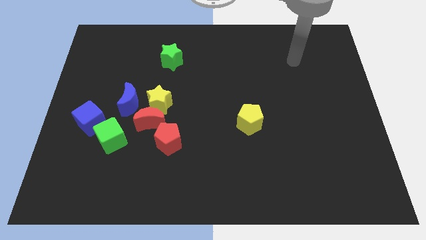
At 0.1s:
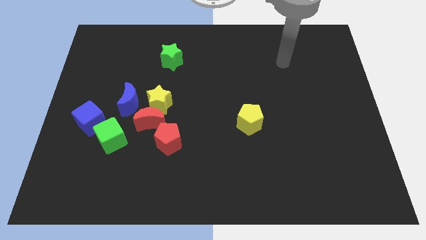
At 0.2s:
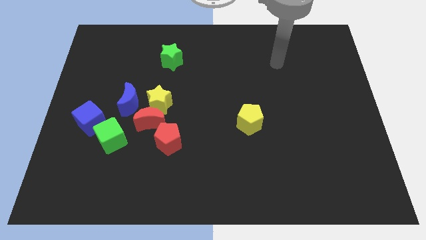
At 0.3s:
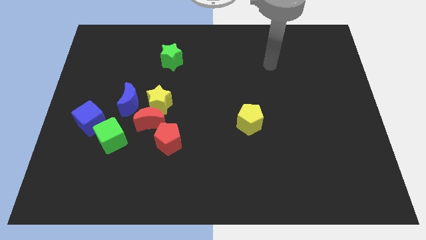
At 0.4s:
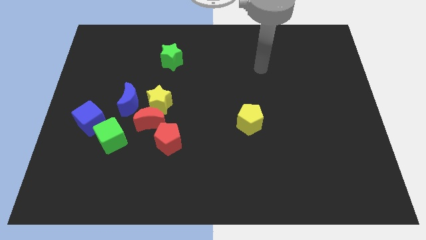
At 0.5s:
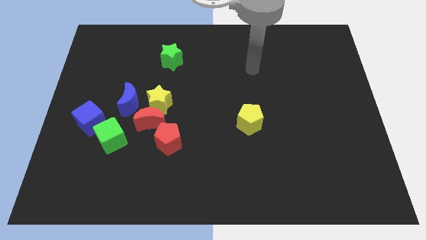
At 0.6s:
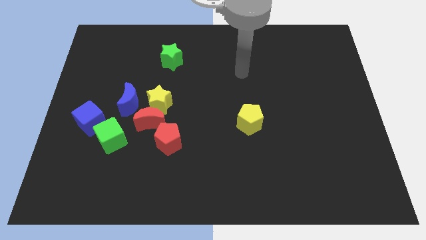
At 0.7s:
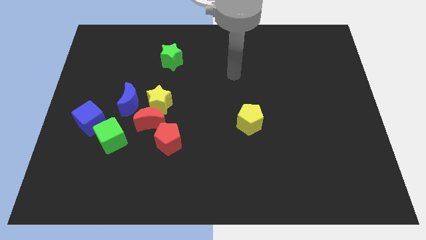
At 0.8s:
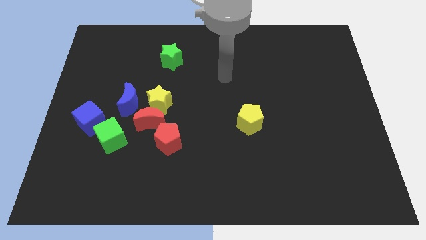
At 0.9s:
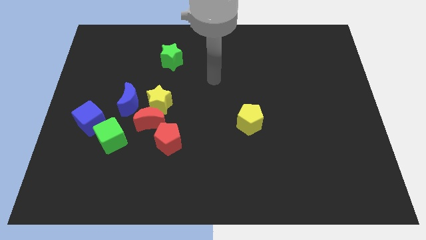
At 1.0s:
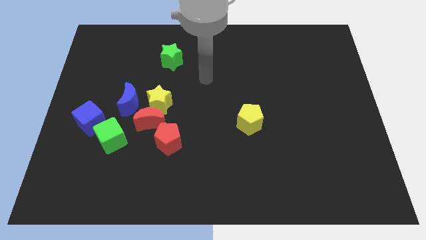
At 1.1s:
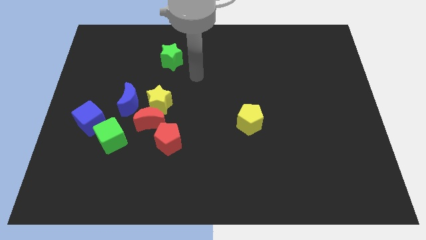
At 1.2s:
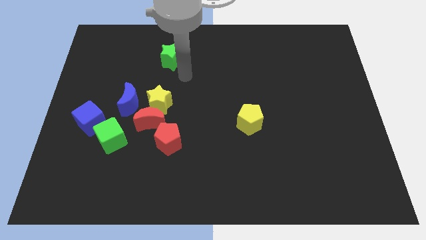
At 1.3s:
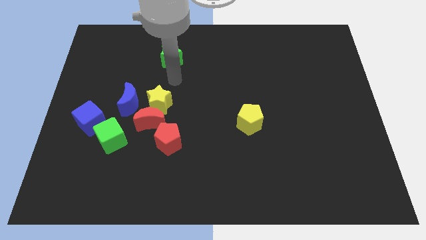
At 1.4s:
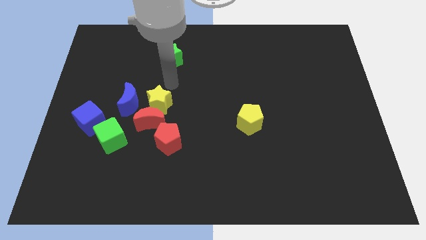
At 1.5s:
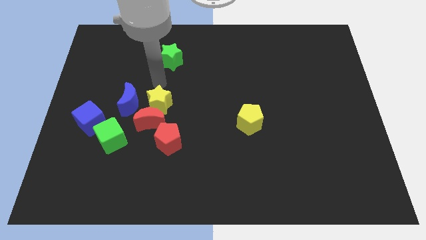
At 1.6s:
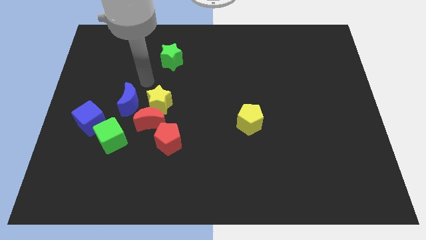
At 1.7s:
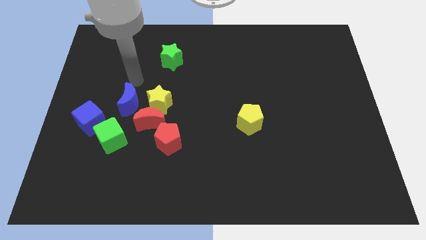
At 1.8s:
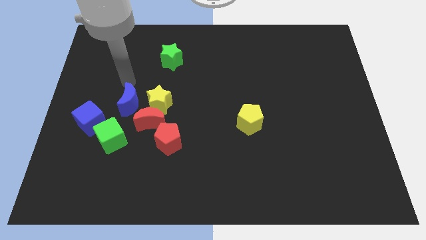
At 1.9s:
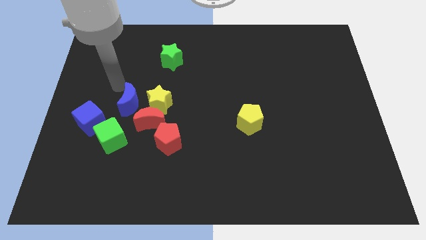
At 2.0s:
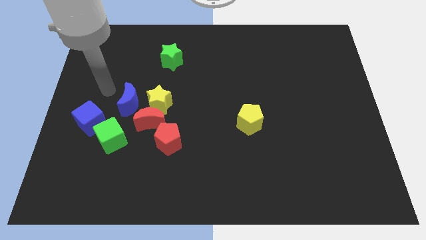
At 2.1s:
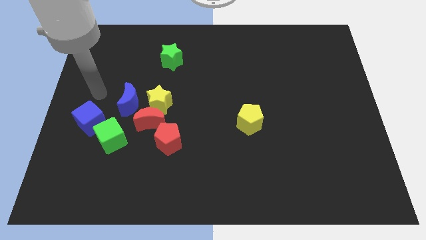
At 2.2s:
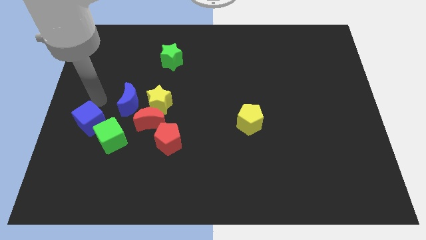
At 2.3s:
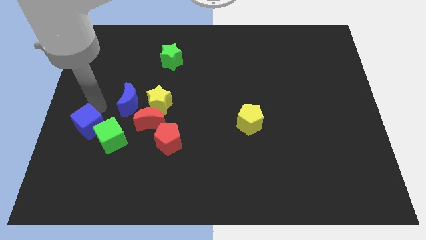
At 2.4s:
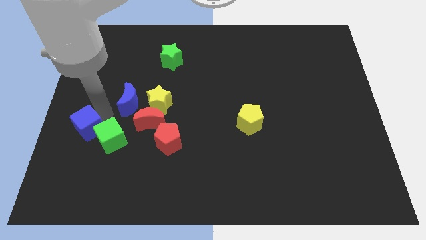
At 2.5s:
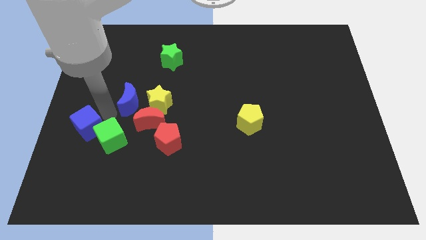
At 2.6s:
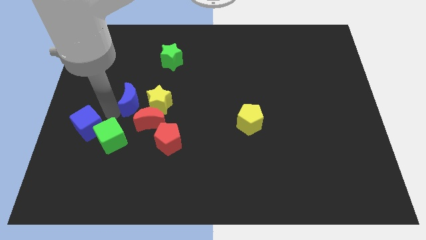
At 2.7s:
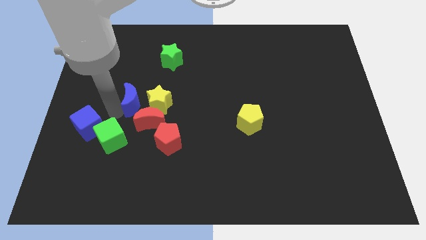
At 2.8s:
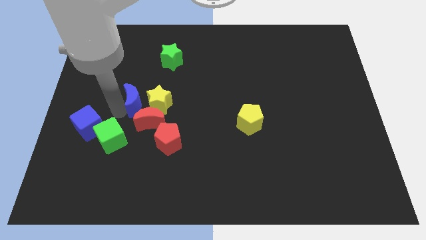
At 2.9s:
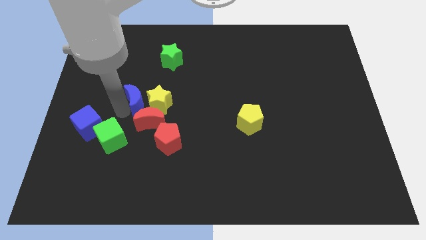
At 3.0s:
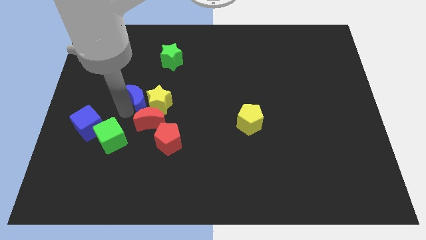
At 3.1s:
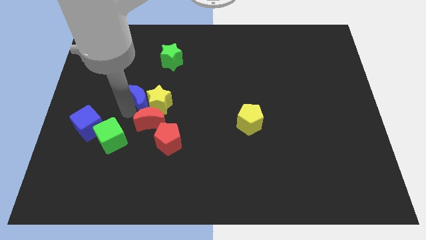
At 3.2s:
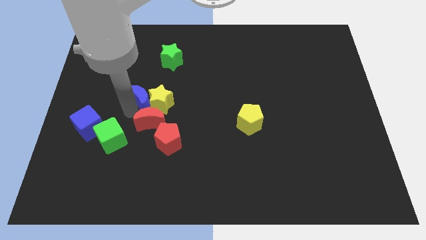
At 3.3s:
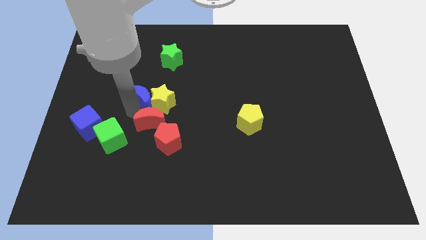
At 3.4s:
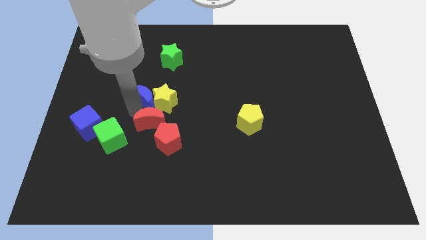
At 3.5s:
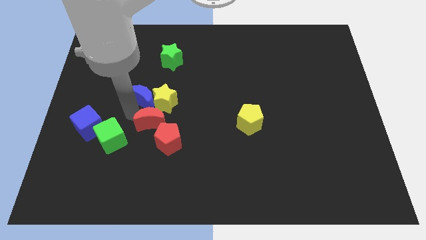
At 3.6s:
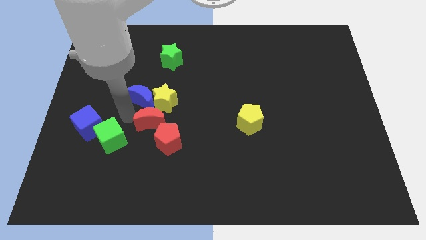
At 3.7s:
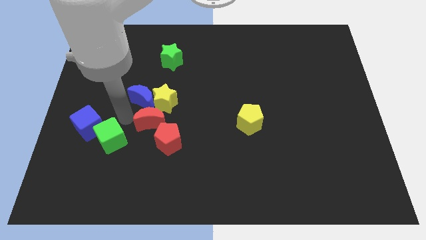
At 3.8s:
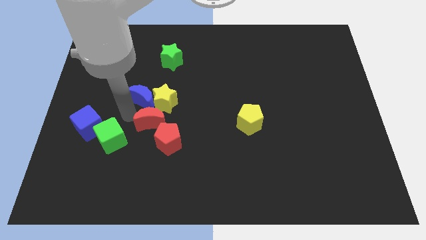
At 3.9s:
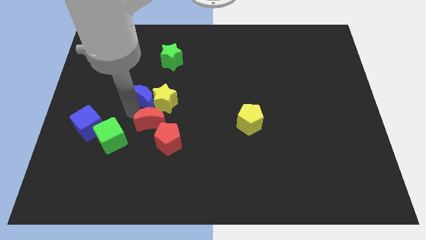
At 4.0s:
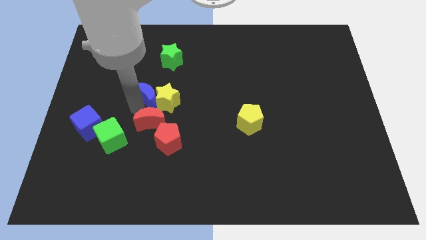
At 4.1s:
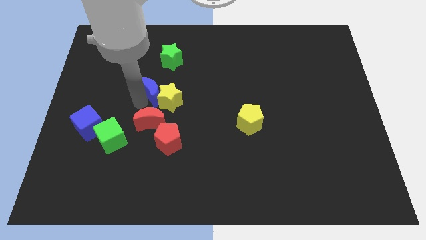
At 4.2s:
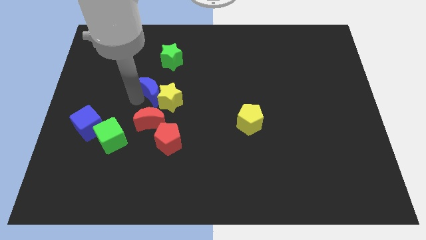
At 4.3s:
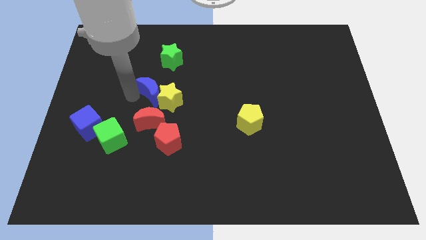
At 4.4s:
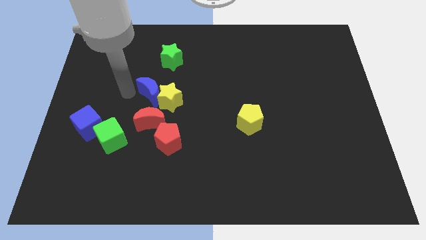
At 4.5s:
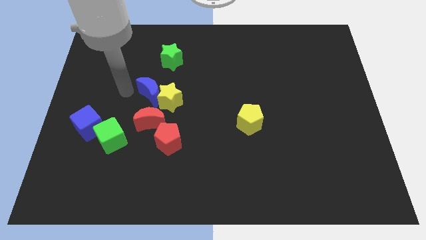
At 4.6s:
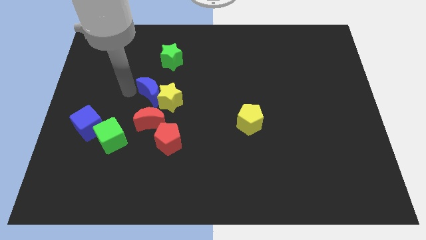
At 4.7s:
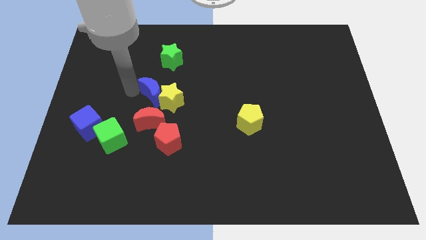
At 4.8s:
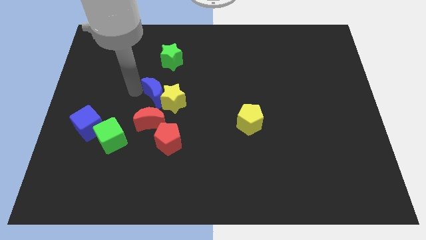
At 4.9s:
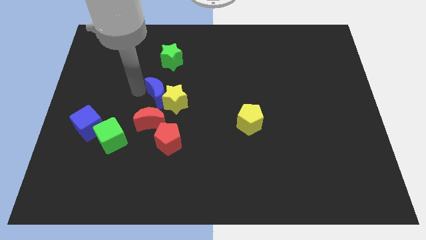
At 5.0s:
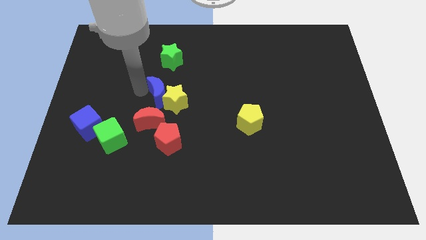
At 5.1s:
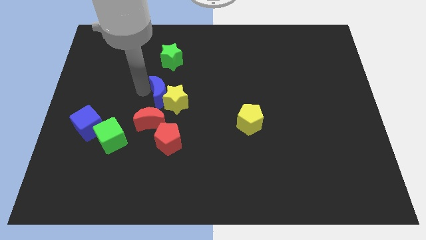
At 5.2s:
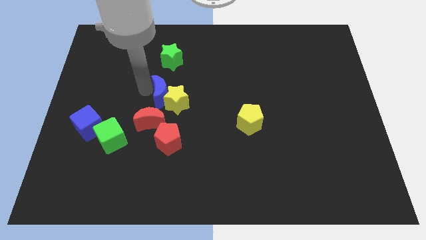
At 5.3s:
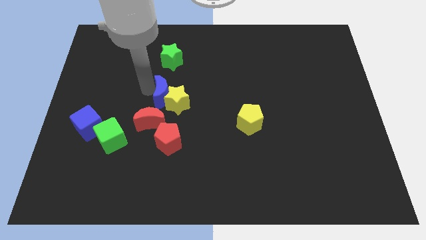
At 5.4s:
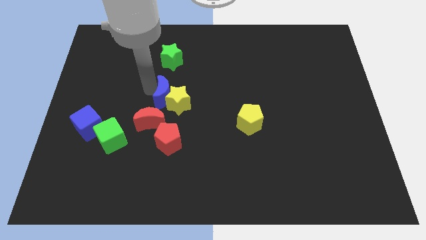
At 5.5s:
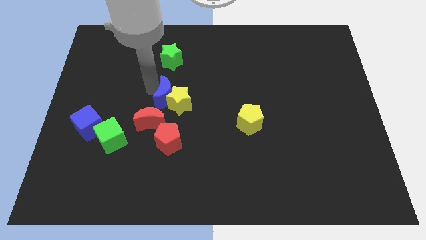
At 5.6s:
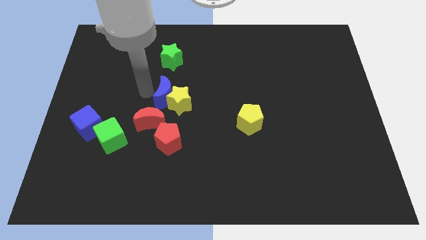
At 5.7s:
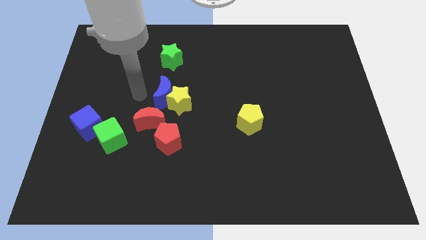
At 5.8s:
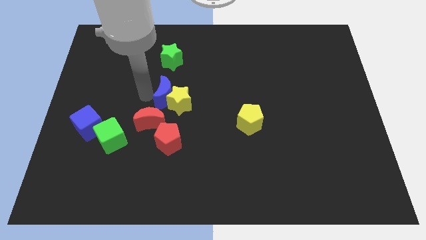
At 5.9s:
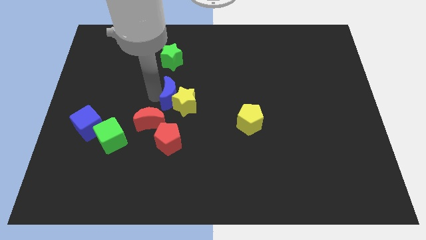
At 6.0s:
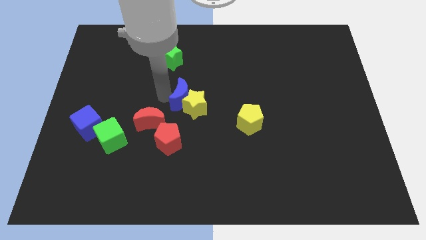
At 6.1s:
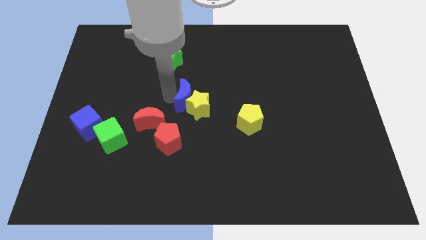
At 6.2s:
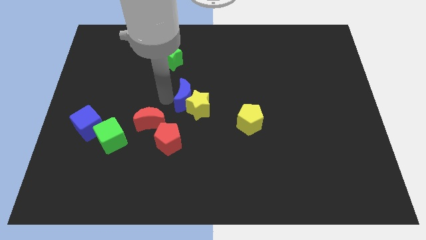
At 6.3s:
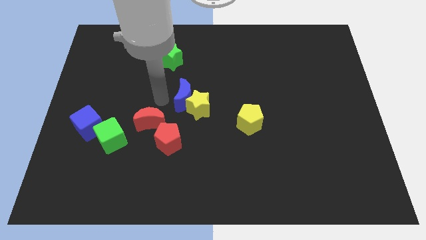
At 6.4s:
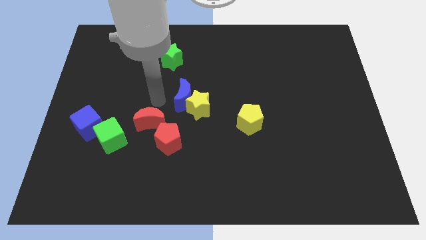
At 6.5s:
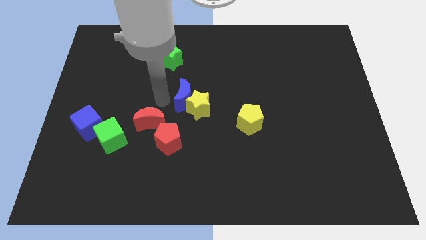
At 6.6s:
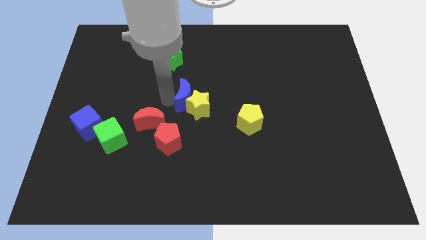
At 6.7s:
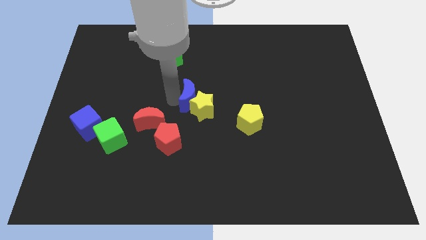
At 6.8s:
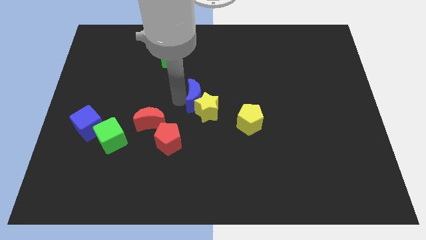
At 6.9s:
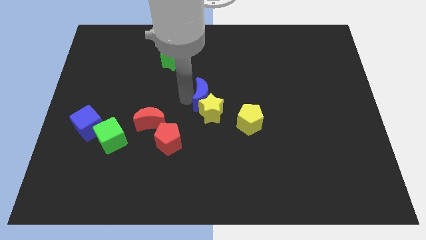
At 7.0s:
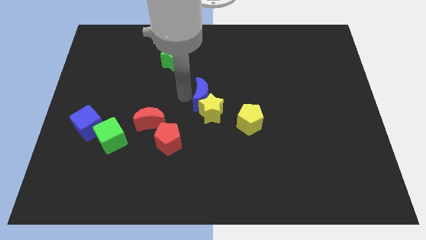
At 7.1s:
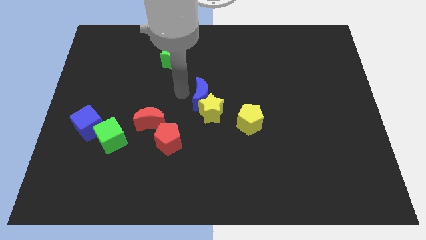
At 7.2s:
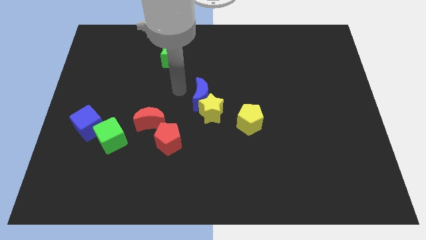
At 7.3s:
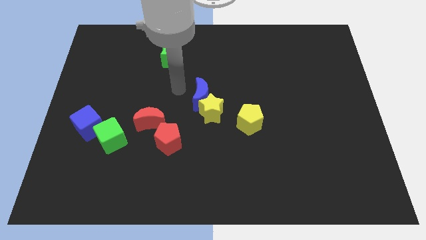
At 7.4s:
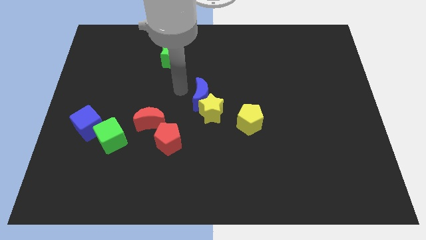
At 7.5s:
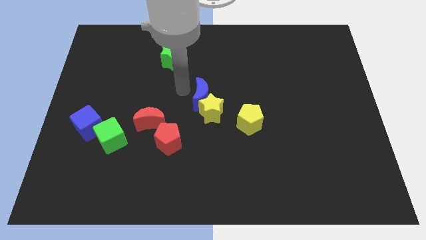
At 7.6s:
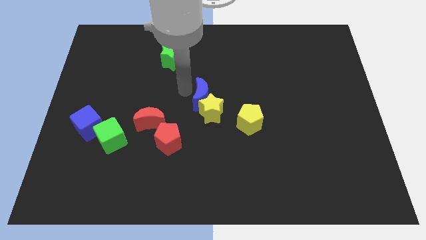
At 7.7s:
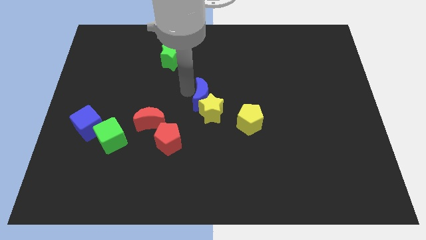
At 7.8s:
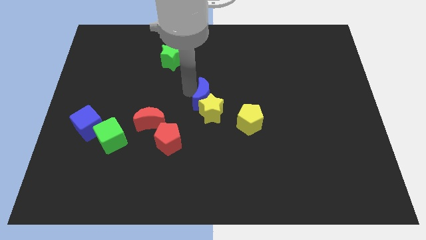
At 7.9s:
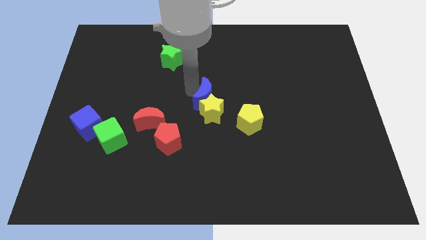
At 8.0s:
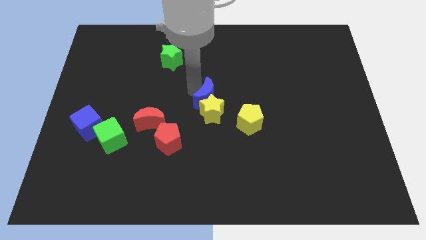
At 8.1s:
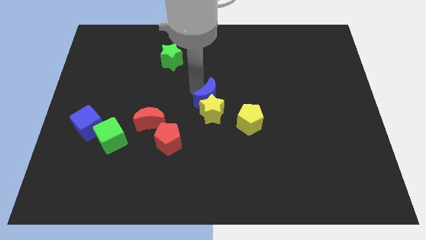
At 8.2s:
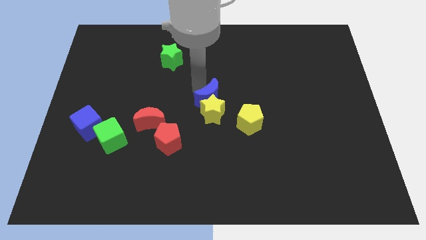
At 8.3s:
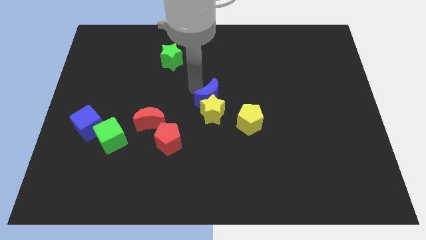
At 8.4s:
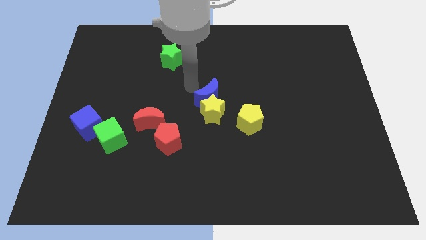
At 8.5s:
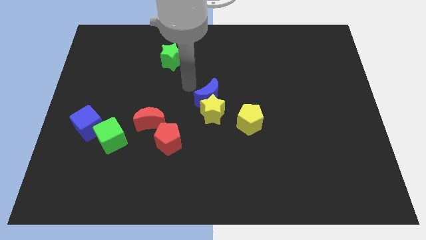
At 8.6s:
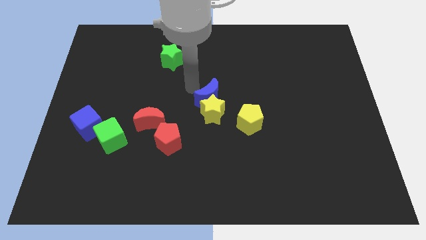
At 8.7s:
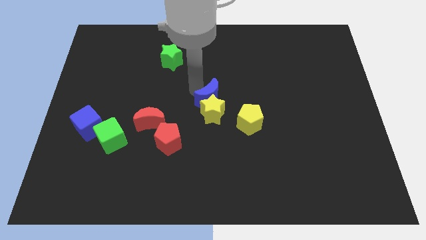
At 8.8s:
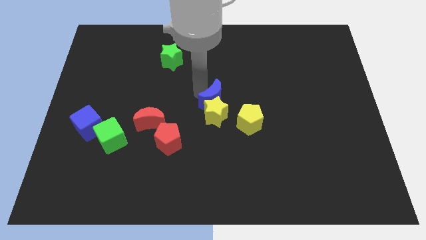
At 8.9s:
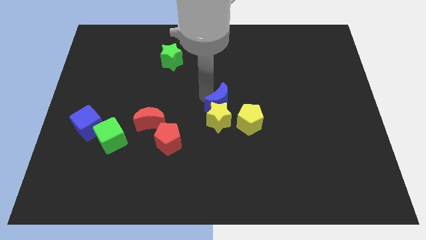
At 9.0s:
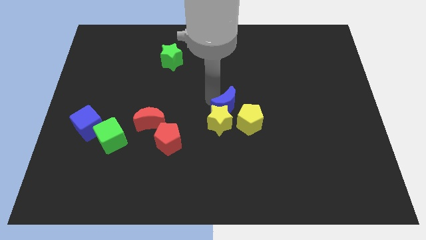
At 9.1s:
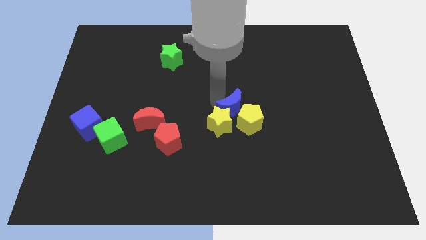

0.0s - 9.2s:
move the blue moon towards the yellow pentagon
